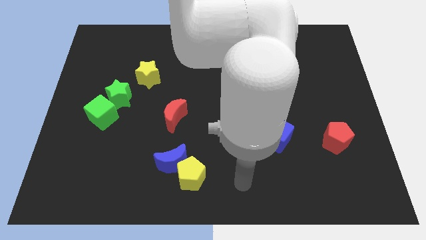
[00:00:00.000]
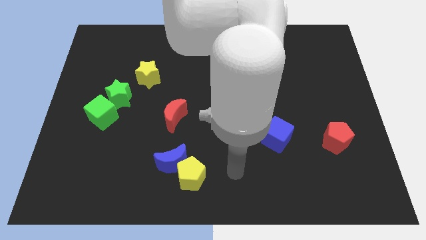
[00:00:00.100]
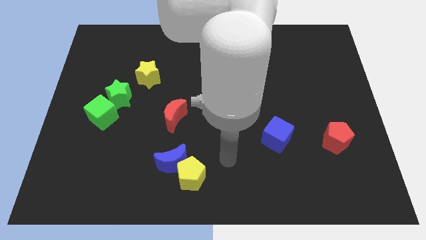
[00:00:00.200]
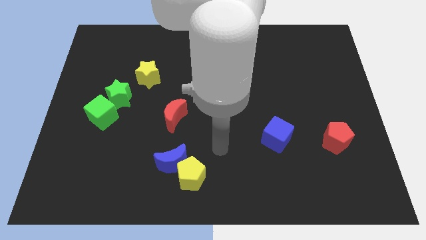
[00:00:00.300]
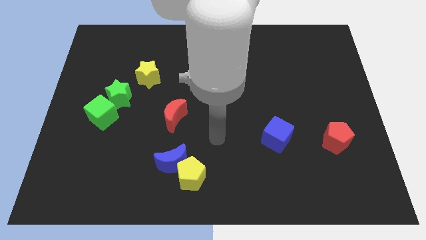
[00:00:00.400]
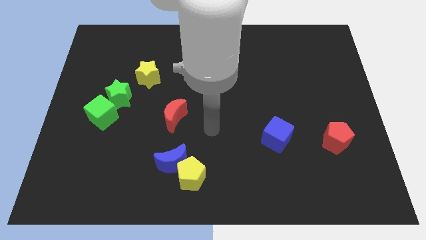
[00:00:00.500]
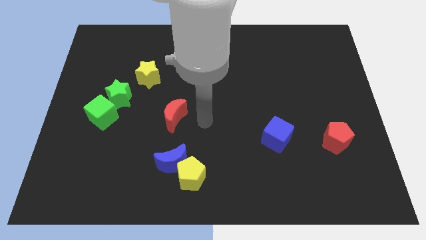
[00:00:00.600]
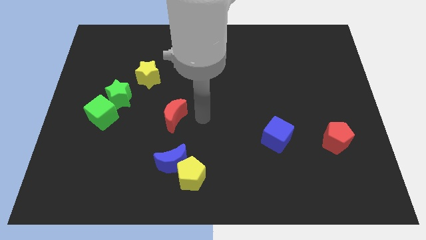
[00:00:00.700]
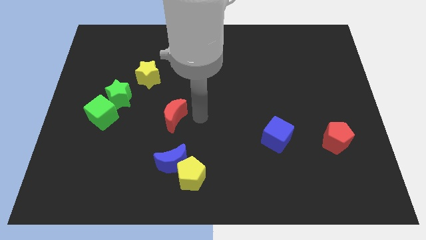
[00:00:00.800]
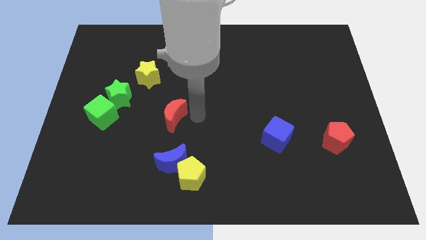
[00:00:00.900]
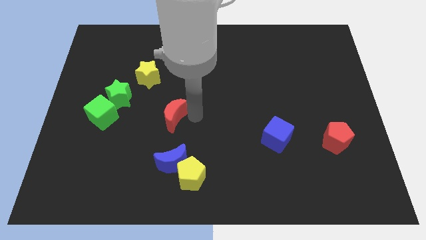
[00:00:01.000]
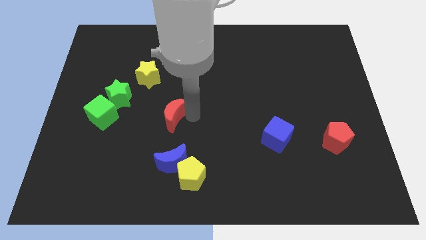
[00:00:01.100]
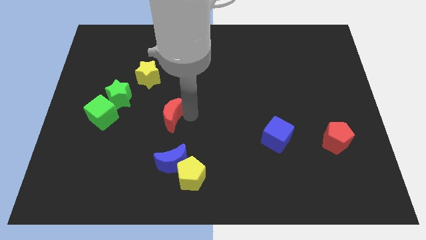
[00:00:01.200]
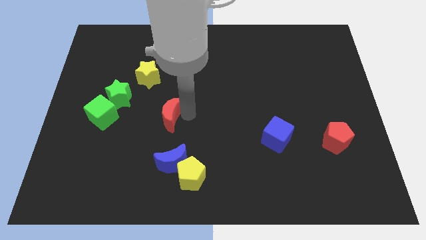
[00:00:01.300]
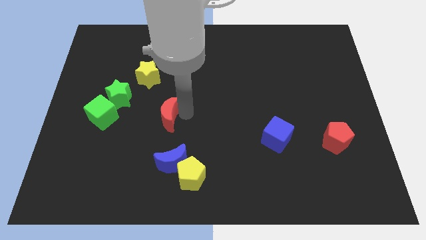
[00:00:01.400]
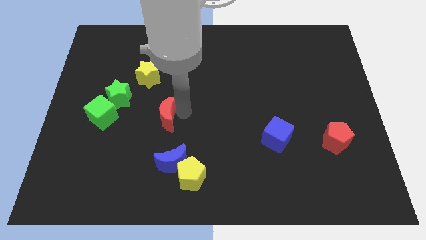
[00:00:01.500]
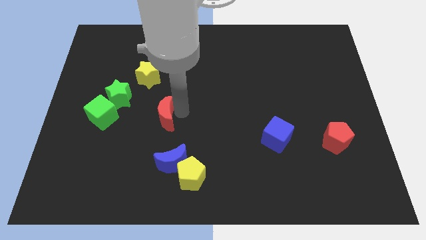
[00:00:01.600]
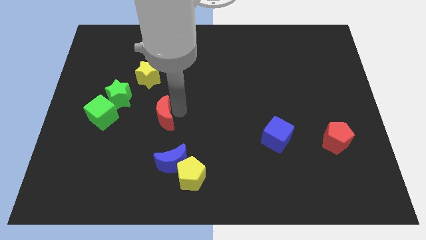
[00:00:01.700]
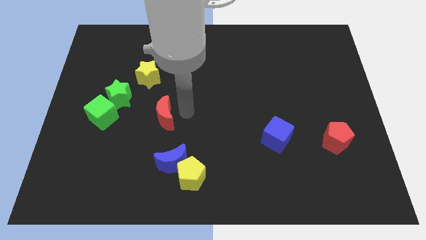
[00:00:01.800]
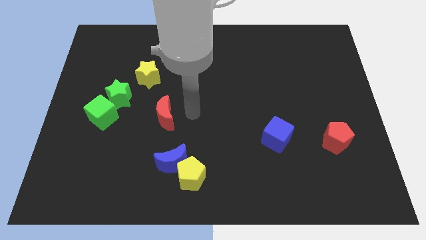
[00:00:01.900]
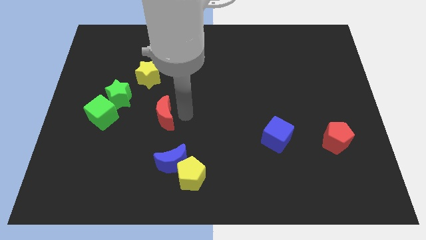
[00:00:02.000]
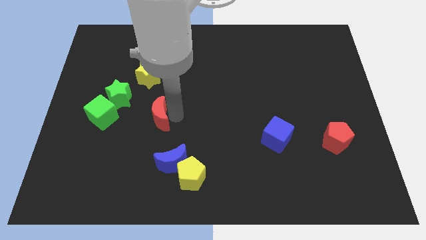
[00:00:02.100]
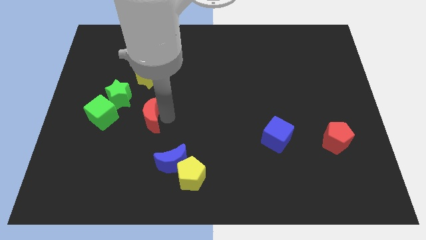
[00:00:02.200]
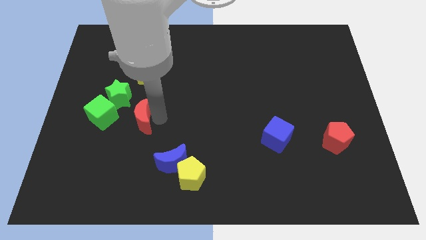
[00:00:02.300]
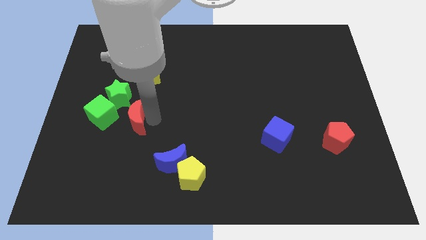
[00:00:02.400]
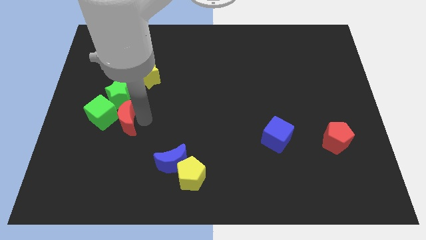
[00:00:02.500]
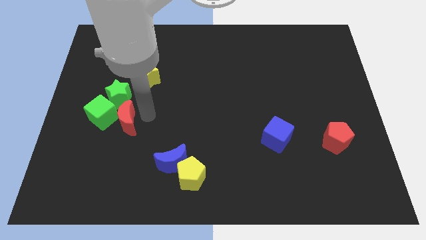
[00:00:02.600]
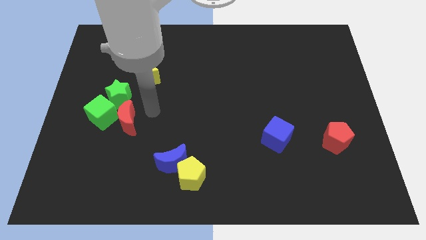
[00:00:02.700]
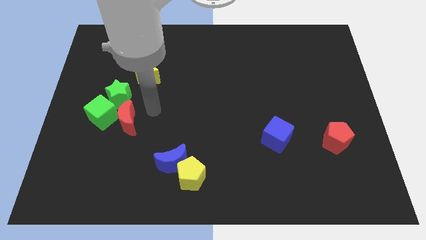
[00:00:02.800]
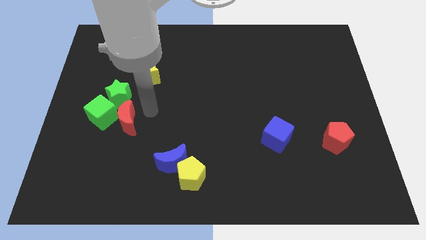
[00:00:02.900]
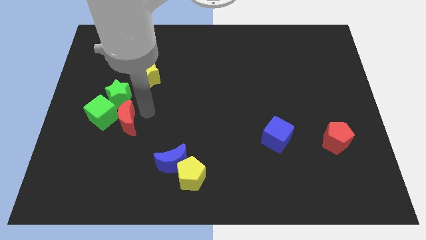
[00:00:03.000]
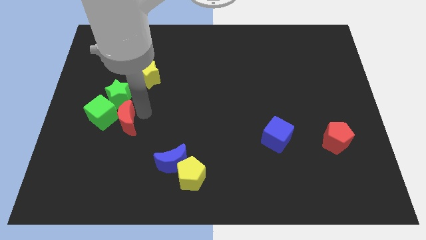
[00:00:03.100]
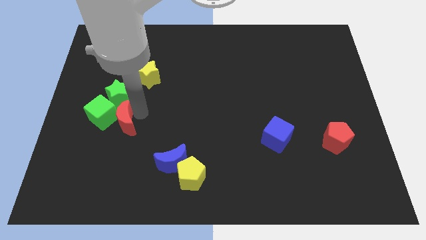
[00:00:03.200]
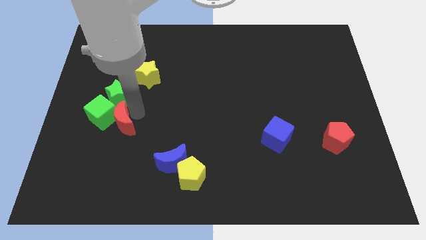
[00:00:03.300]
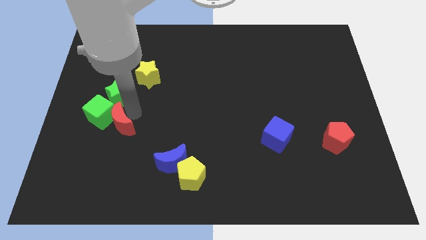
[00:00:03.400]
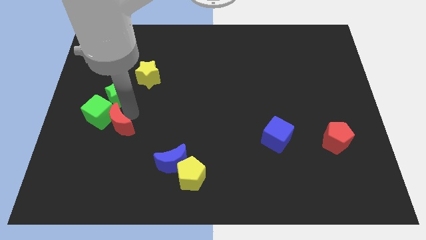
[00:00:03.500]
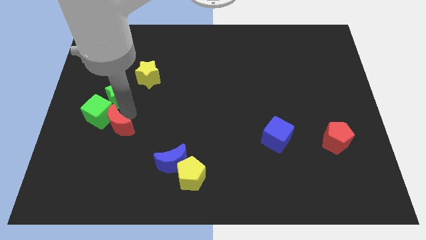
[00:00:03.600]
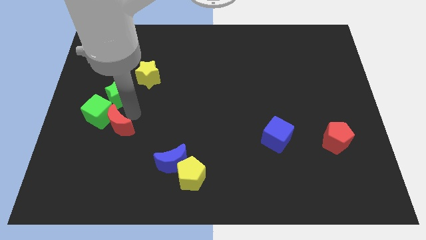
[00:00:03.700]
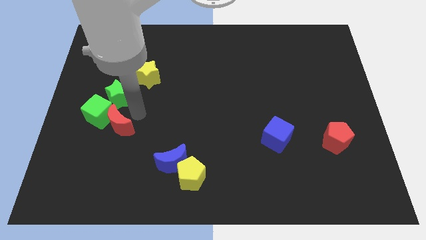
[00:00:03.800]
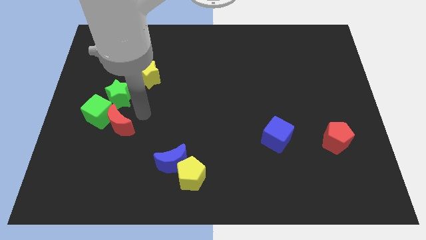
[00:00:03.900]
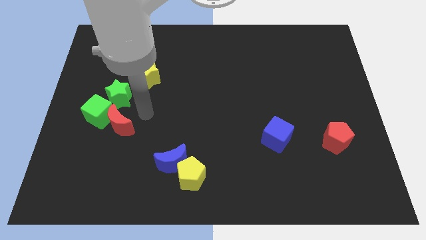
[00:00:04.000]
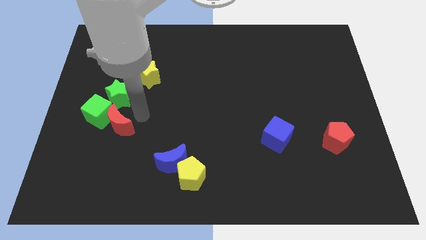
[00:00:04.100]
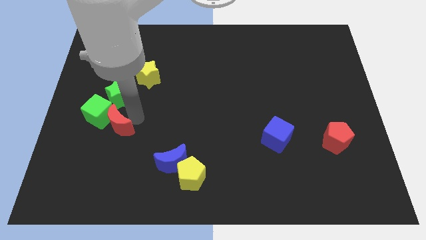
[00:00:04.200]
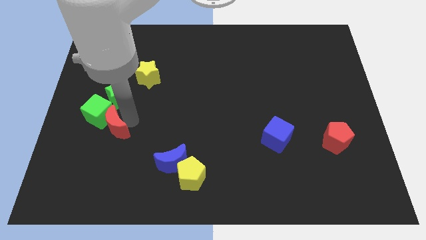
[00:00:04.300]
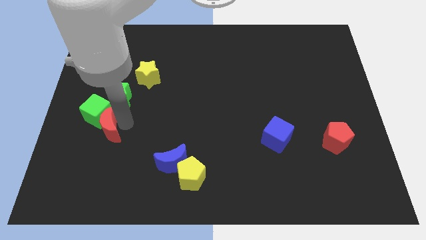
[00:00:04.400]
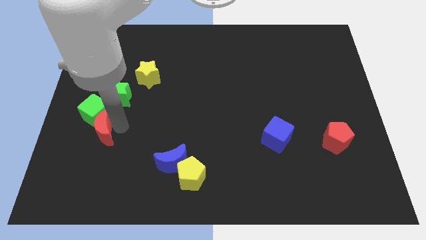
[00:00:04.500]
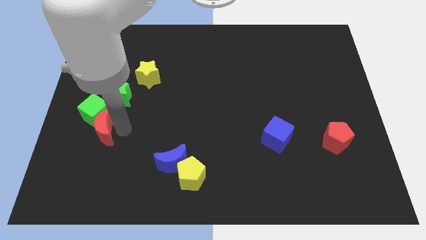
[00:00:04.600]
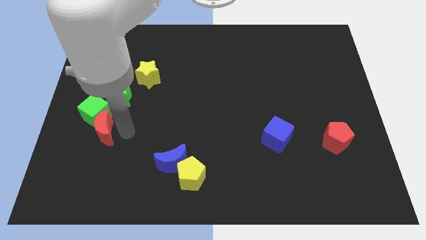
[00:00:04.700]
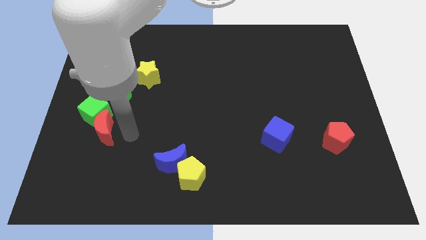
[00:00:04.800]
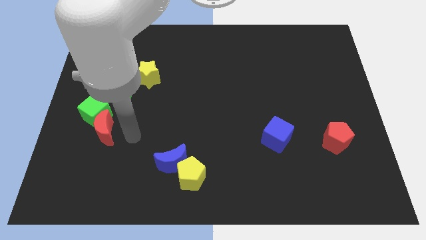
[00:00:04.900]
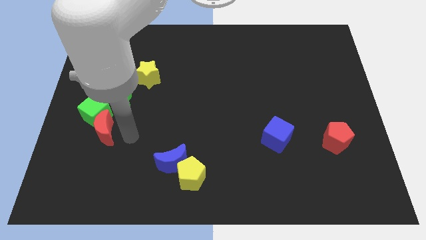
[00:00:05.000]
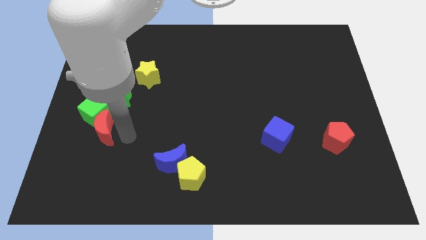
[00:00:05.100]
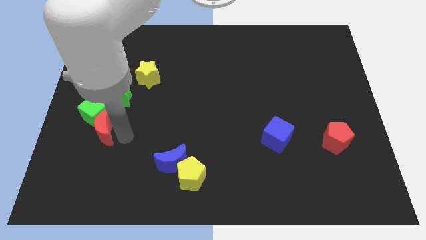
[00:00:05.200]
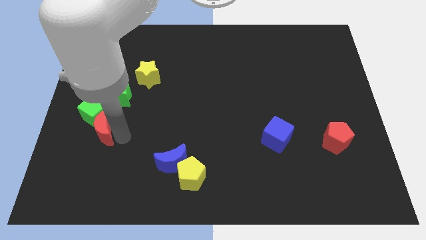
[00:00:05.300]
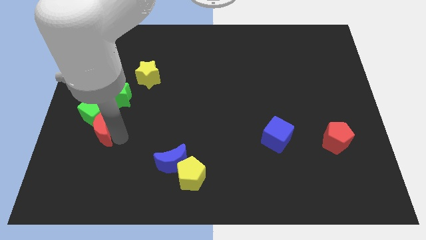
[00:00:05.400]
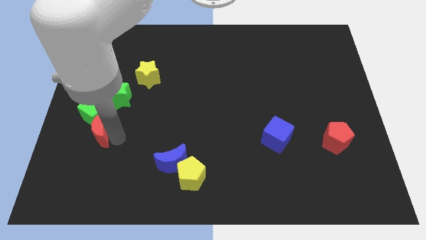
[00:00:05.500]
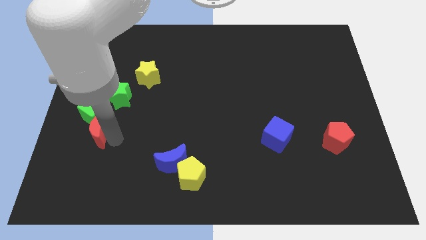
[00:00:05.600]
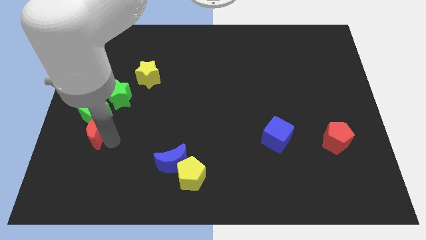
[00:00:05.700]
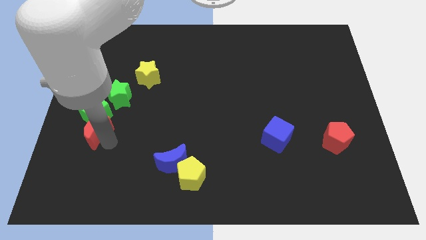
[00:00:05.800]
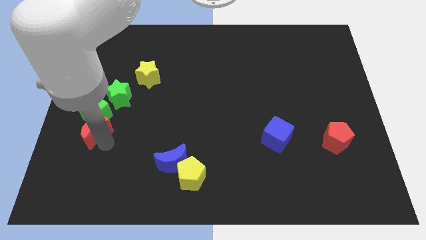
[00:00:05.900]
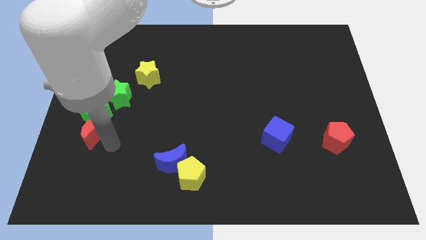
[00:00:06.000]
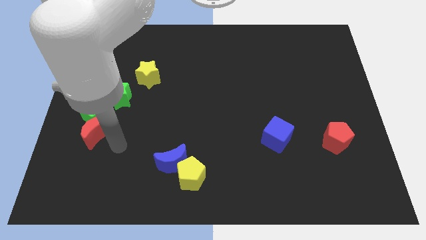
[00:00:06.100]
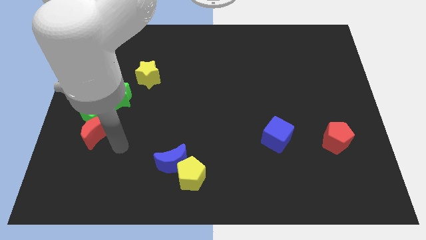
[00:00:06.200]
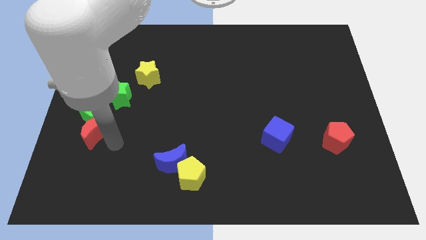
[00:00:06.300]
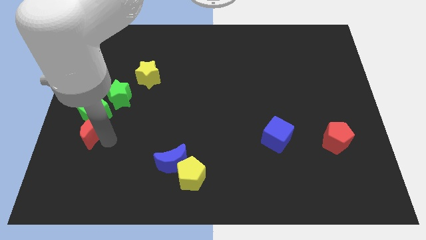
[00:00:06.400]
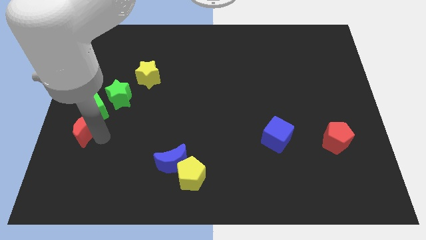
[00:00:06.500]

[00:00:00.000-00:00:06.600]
move the red moon to the center left
